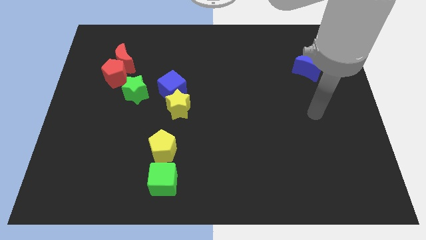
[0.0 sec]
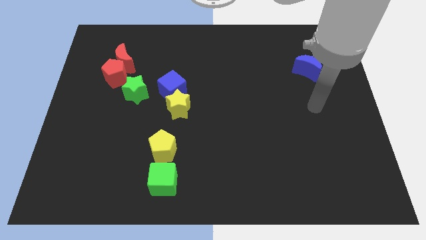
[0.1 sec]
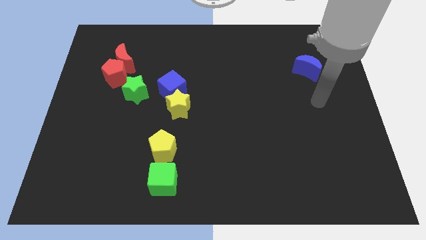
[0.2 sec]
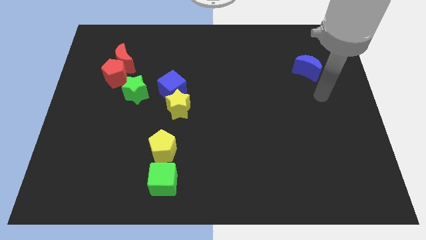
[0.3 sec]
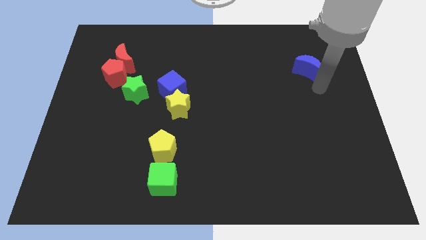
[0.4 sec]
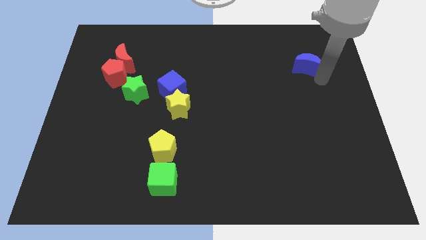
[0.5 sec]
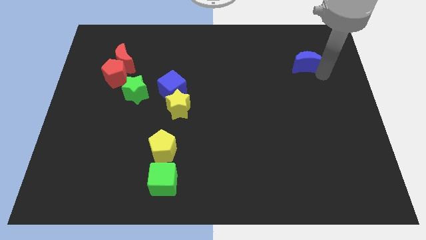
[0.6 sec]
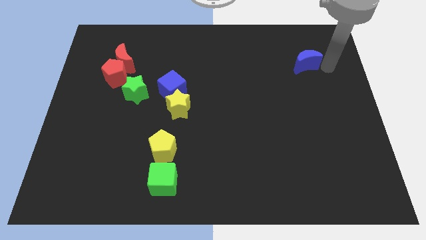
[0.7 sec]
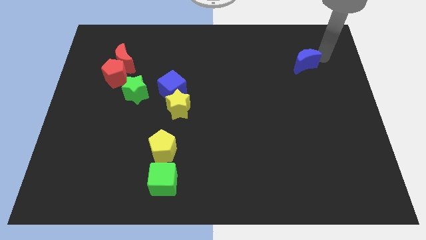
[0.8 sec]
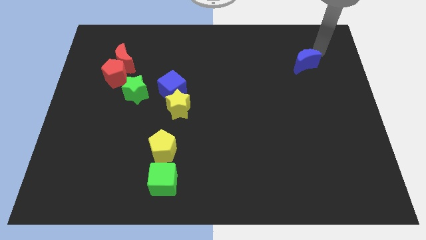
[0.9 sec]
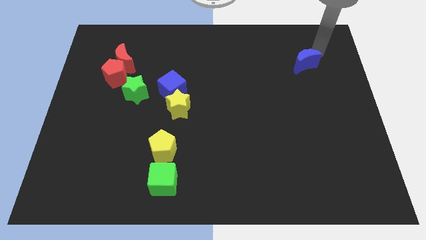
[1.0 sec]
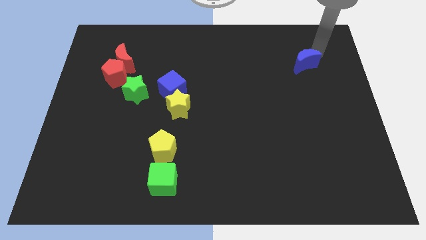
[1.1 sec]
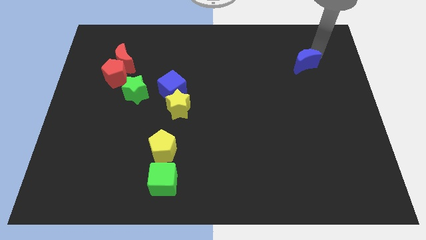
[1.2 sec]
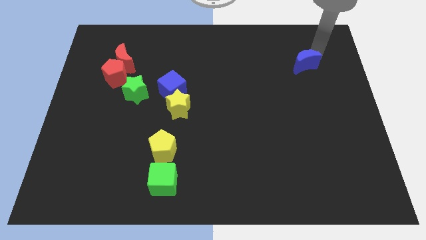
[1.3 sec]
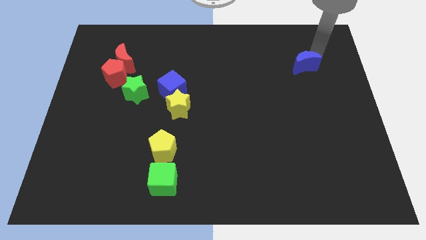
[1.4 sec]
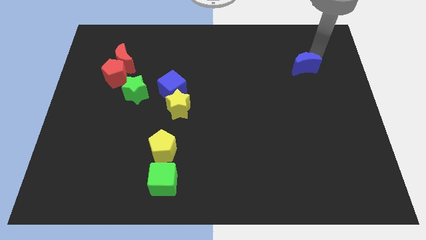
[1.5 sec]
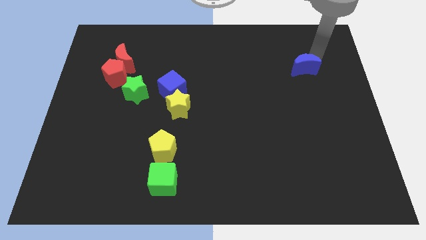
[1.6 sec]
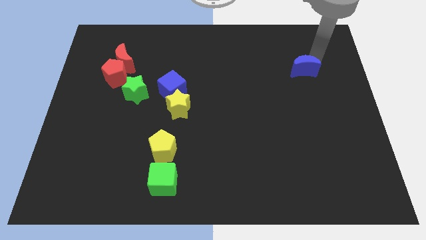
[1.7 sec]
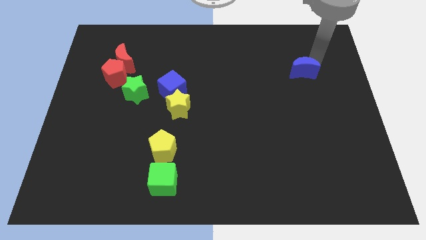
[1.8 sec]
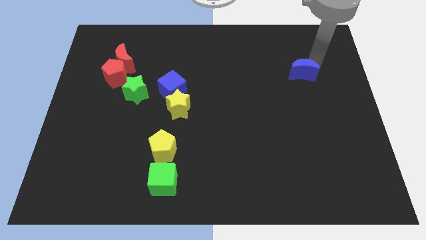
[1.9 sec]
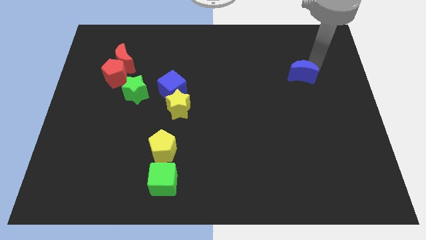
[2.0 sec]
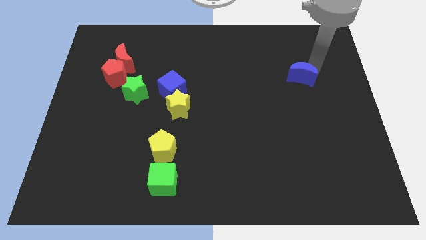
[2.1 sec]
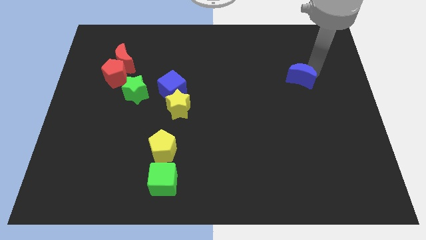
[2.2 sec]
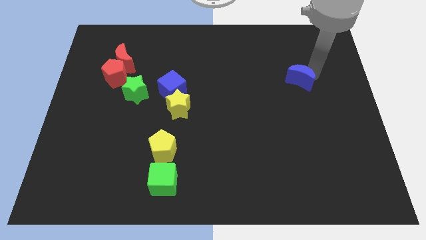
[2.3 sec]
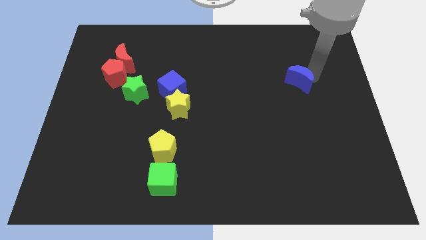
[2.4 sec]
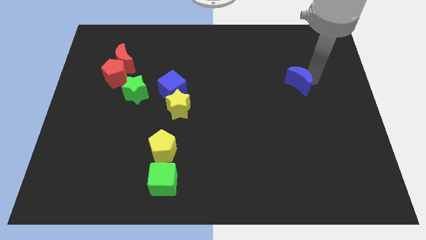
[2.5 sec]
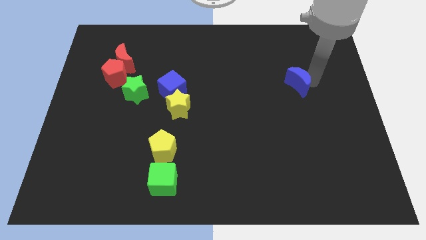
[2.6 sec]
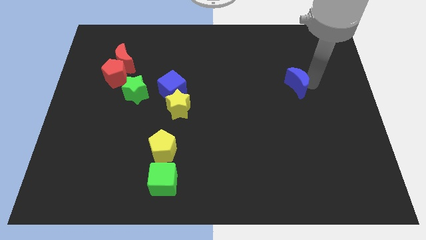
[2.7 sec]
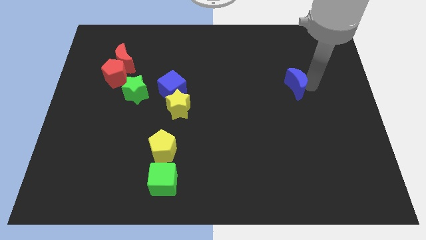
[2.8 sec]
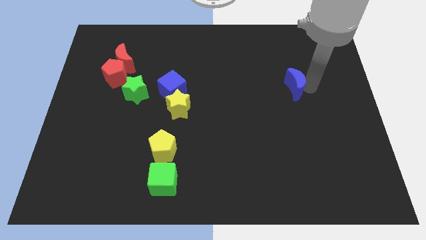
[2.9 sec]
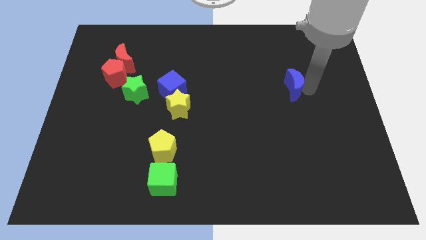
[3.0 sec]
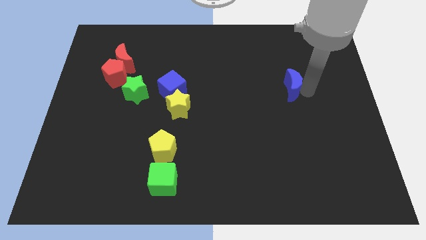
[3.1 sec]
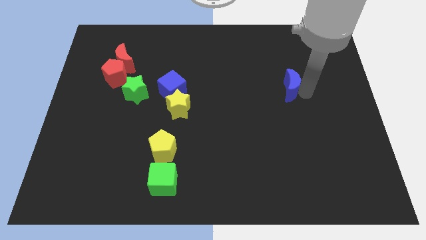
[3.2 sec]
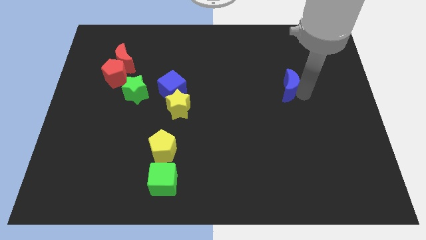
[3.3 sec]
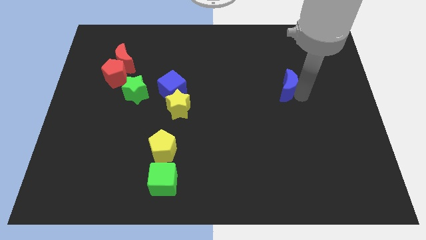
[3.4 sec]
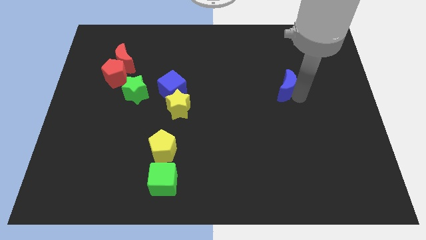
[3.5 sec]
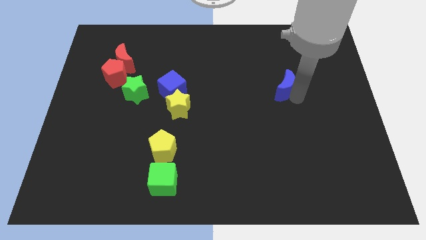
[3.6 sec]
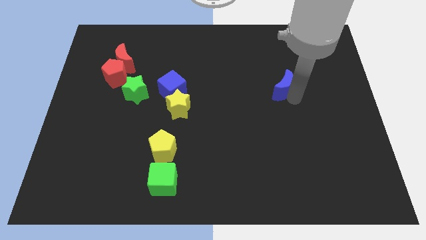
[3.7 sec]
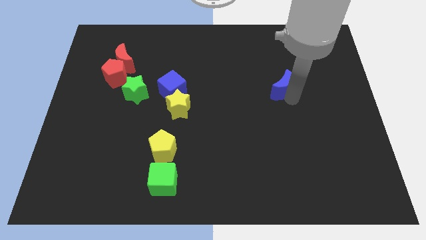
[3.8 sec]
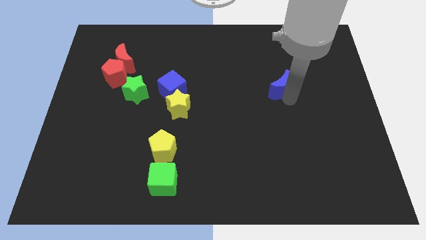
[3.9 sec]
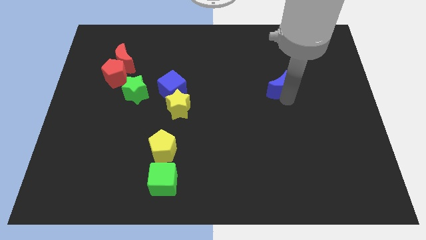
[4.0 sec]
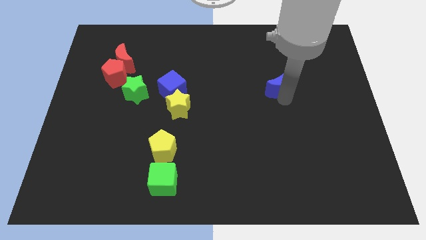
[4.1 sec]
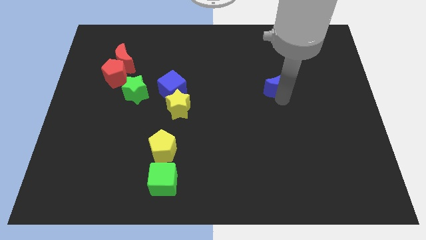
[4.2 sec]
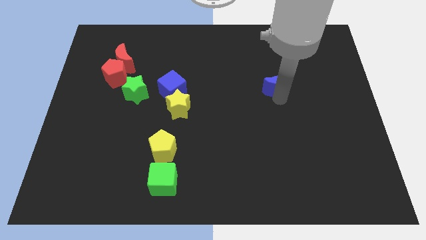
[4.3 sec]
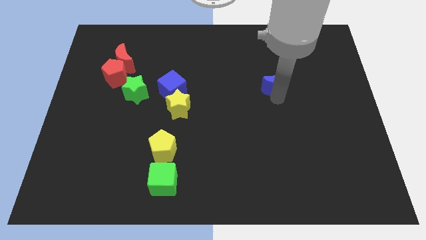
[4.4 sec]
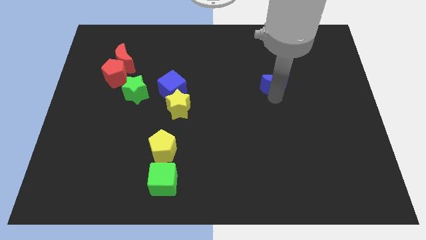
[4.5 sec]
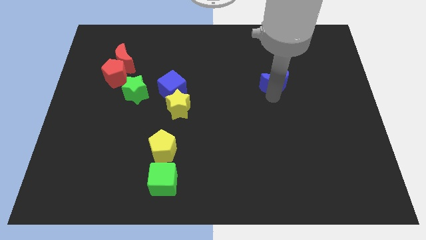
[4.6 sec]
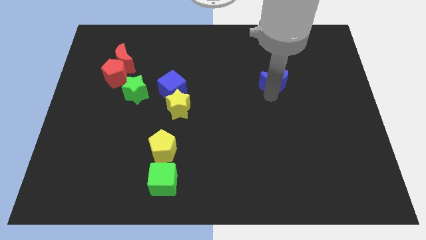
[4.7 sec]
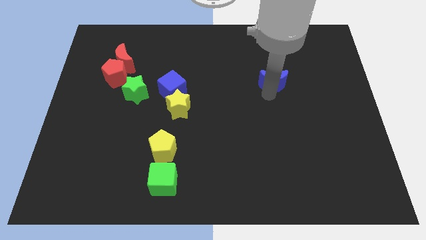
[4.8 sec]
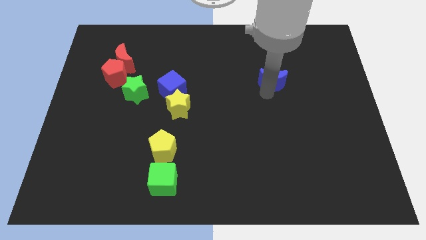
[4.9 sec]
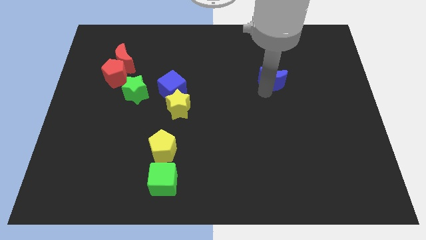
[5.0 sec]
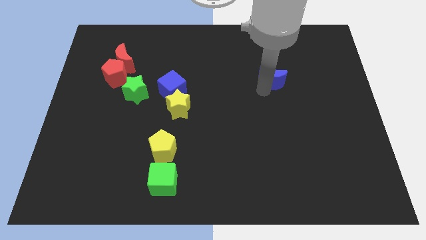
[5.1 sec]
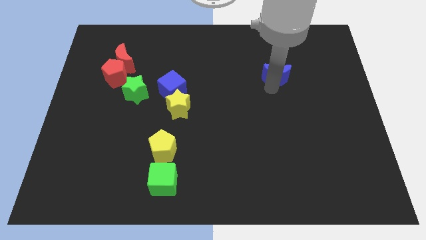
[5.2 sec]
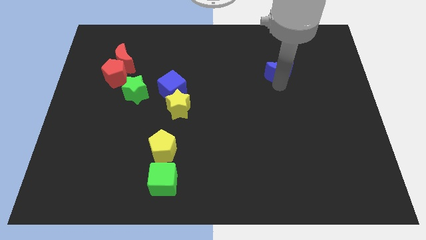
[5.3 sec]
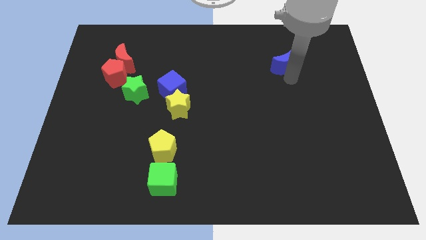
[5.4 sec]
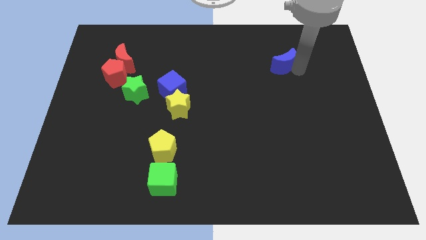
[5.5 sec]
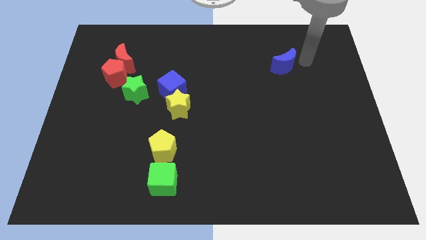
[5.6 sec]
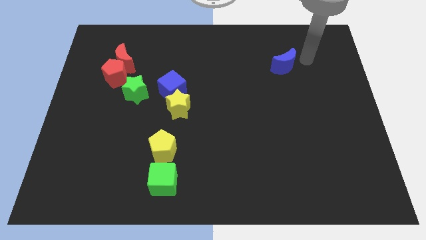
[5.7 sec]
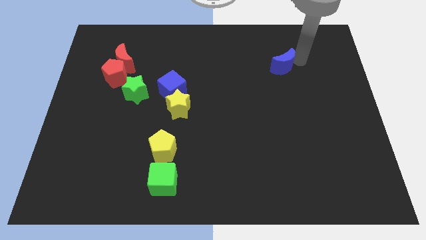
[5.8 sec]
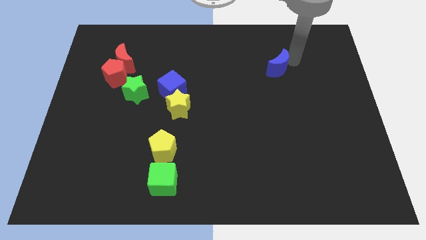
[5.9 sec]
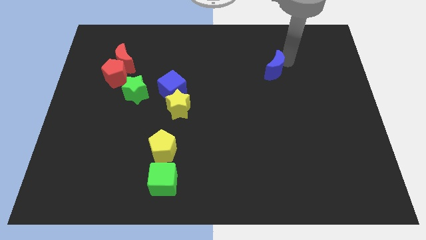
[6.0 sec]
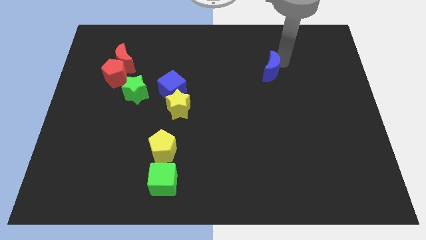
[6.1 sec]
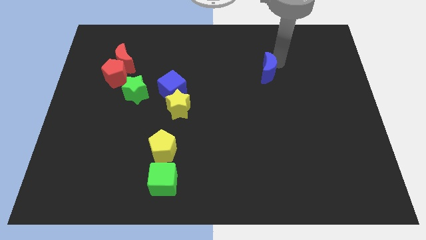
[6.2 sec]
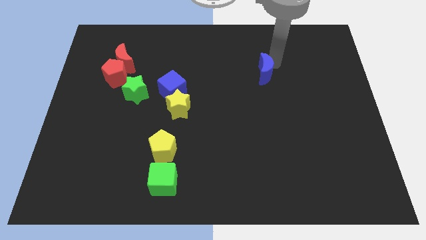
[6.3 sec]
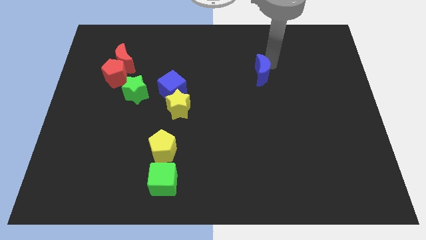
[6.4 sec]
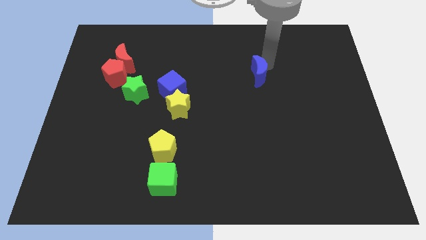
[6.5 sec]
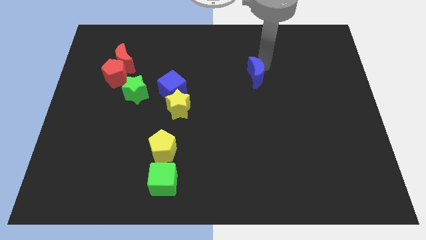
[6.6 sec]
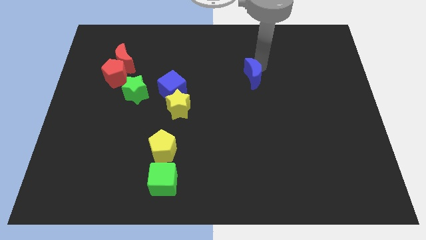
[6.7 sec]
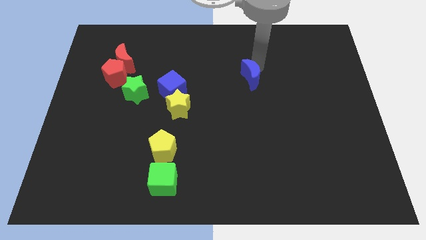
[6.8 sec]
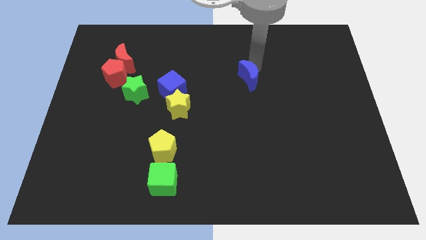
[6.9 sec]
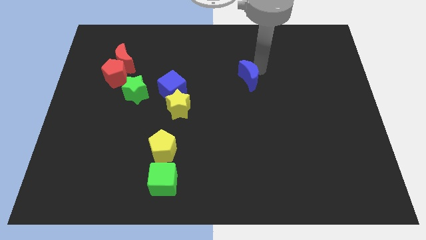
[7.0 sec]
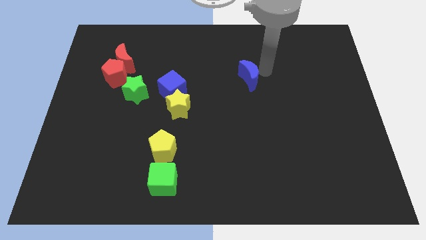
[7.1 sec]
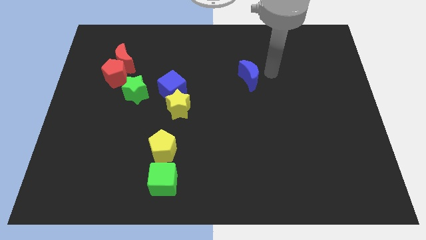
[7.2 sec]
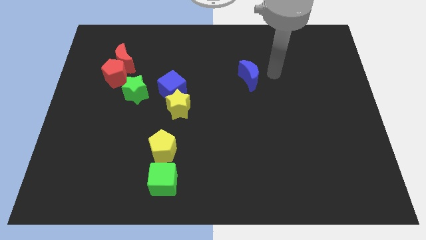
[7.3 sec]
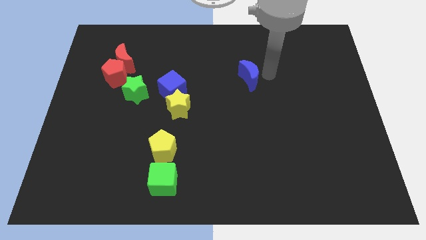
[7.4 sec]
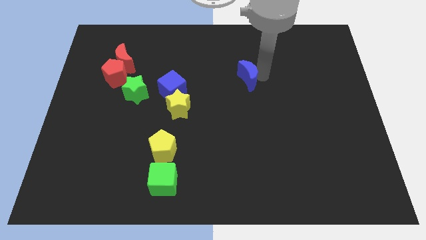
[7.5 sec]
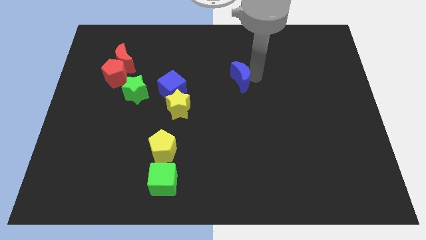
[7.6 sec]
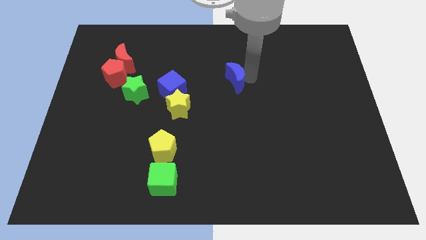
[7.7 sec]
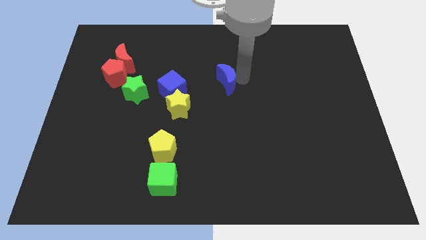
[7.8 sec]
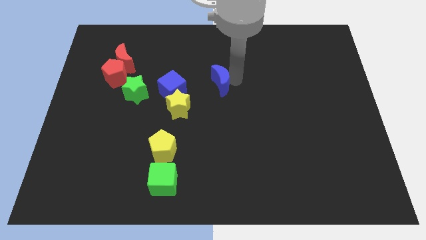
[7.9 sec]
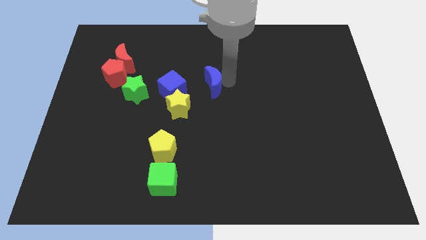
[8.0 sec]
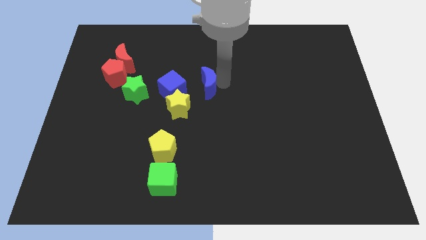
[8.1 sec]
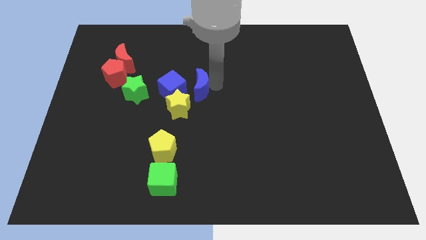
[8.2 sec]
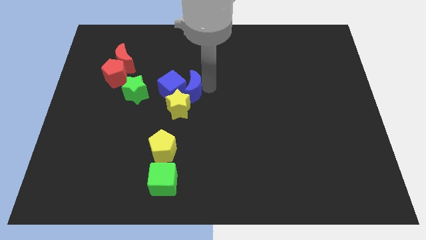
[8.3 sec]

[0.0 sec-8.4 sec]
move the blue moon close to the blue cube
